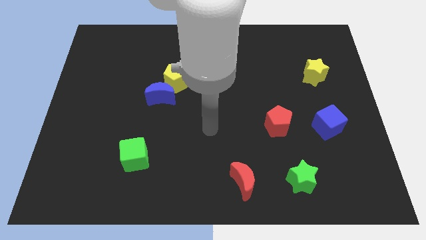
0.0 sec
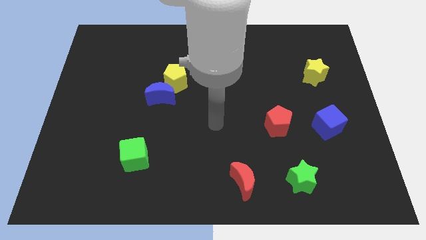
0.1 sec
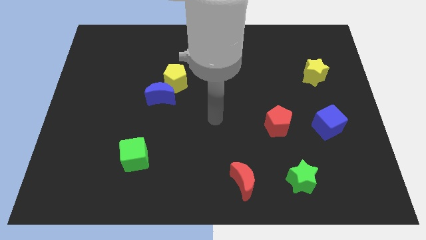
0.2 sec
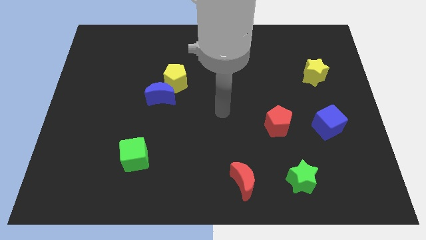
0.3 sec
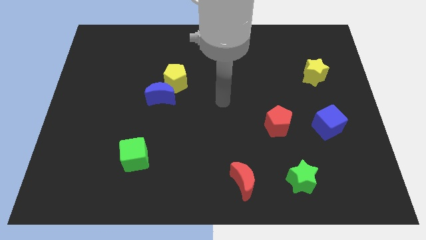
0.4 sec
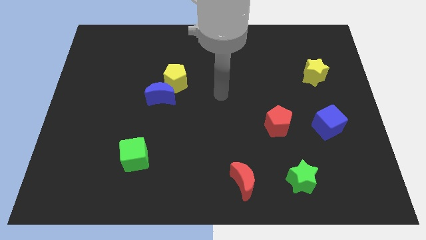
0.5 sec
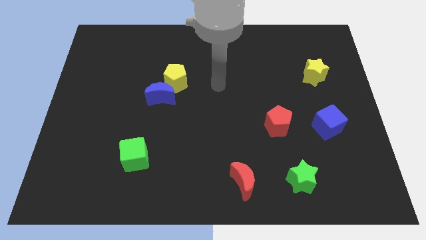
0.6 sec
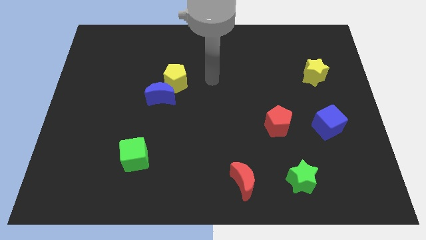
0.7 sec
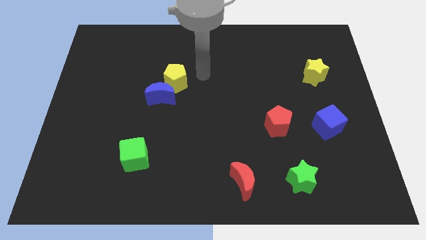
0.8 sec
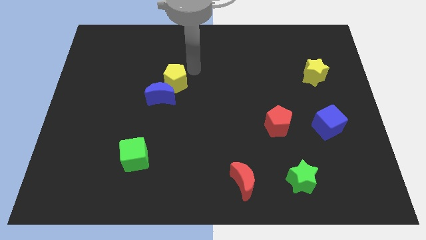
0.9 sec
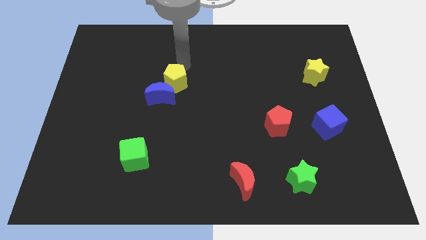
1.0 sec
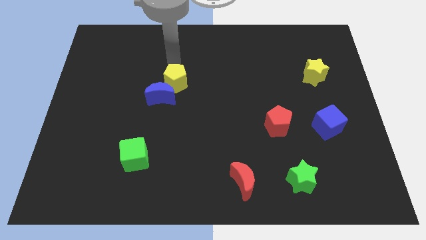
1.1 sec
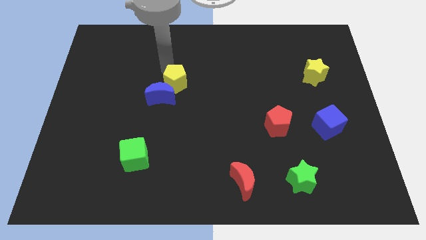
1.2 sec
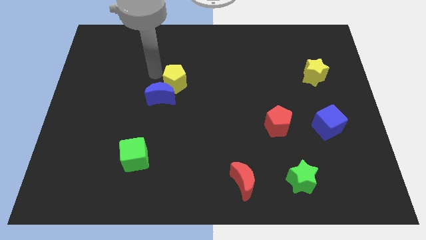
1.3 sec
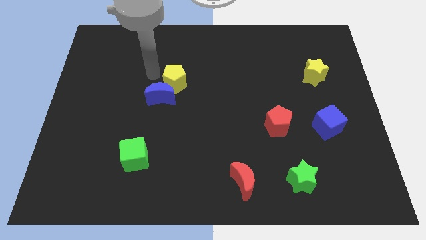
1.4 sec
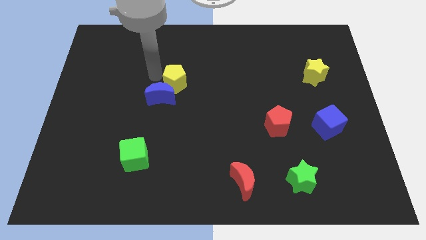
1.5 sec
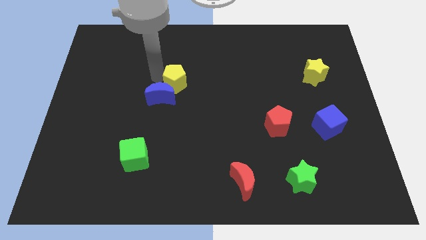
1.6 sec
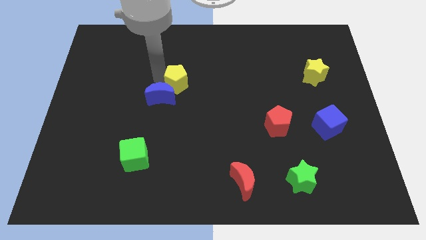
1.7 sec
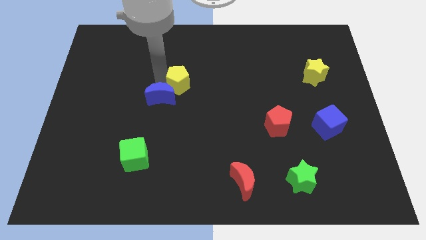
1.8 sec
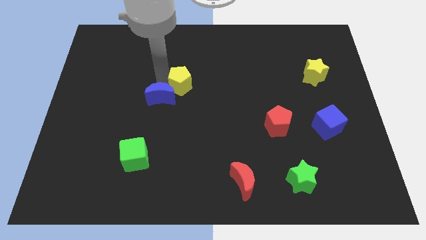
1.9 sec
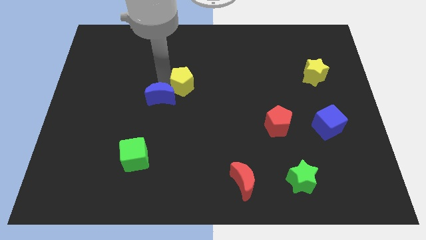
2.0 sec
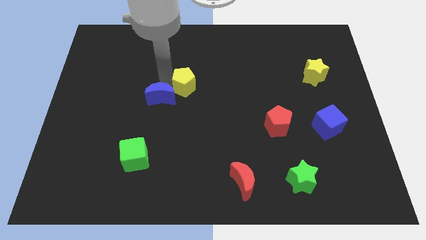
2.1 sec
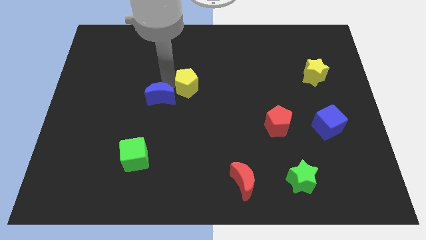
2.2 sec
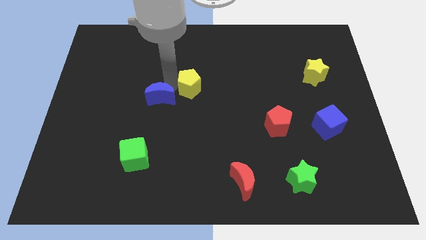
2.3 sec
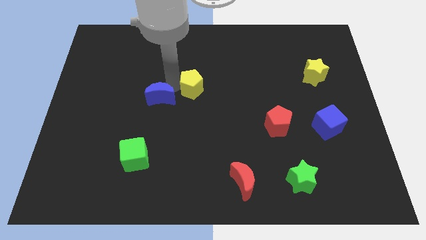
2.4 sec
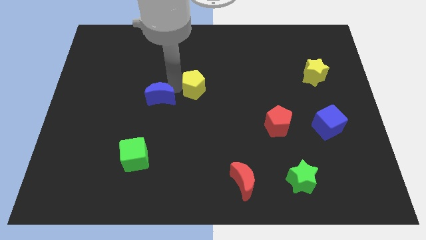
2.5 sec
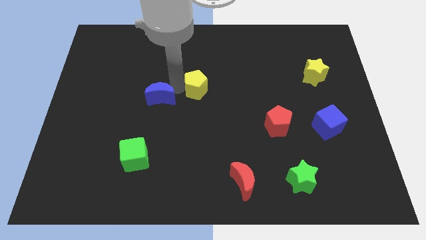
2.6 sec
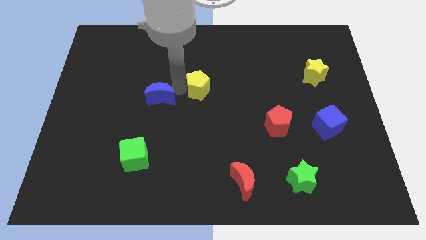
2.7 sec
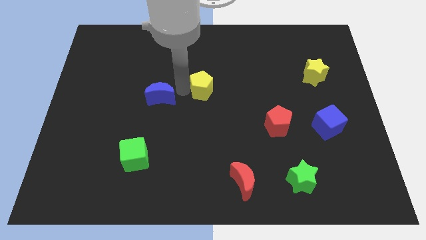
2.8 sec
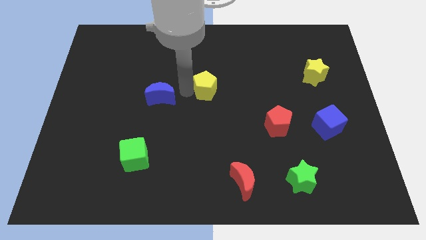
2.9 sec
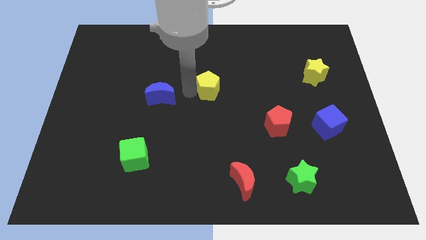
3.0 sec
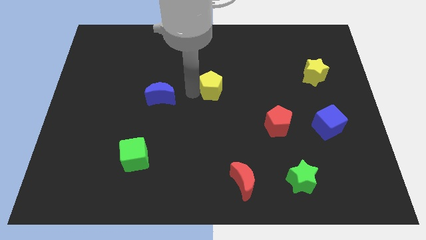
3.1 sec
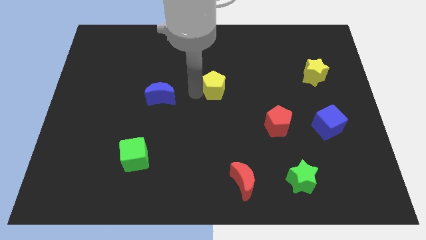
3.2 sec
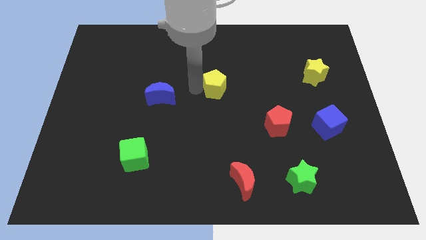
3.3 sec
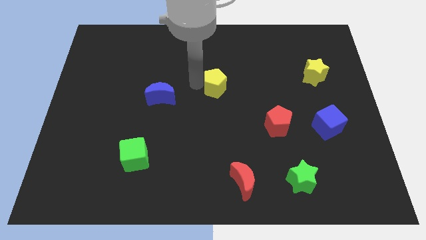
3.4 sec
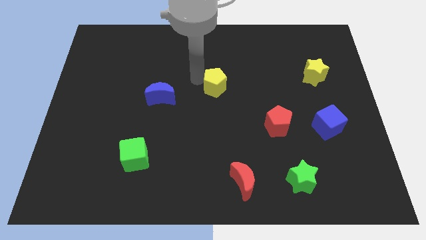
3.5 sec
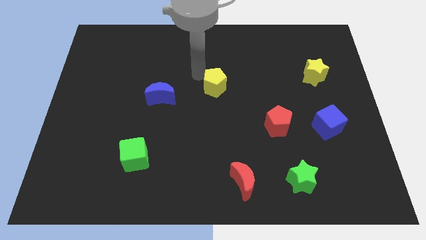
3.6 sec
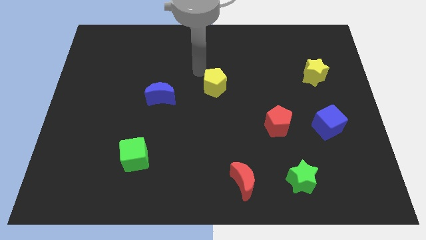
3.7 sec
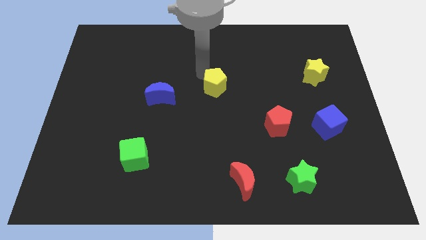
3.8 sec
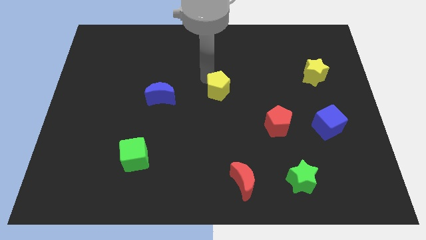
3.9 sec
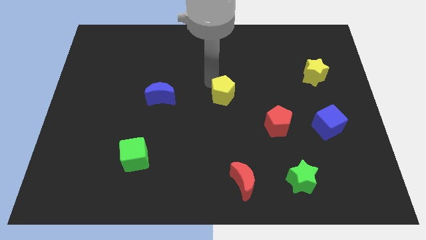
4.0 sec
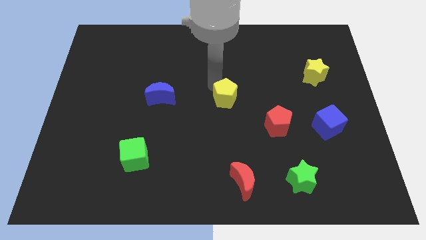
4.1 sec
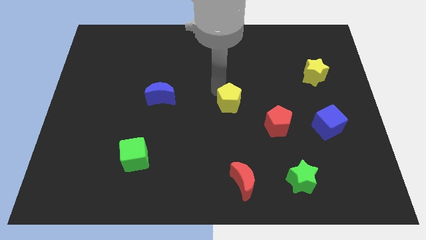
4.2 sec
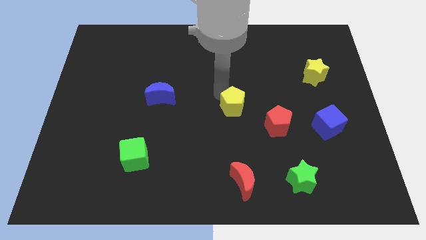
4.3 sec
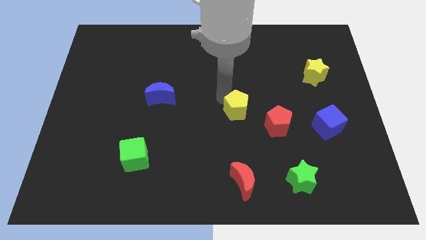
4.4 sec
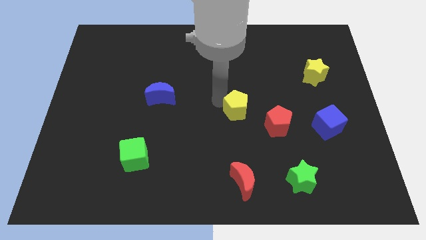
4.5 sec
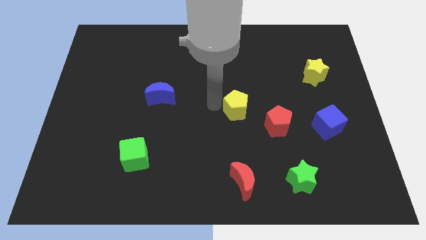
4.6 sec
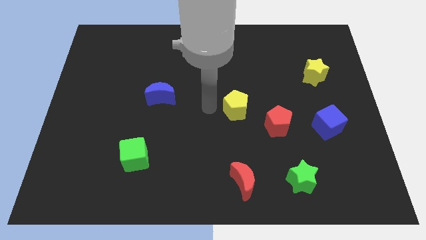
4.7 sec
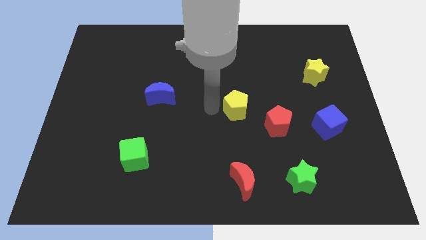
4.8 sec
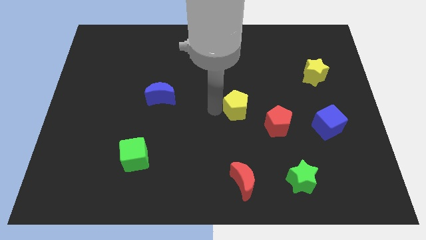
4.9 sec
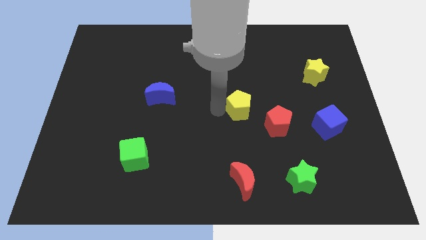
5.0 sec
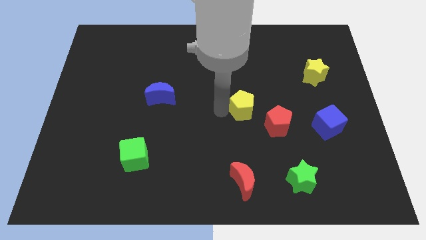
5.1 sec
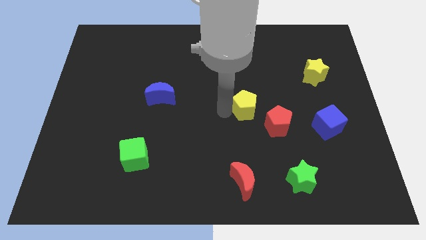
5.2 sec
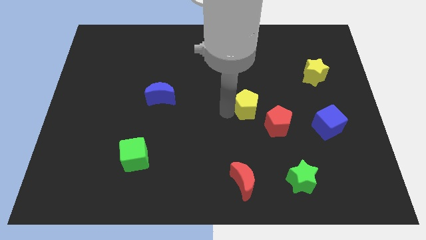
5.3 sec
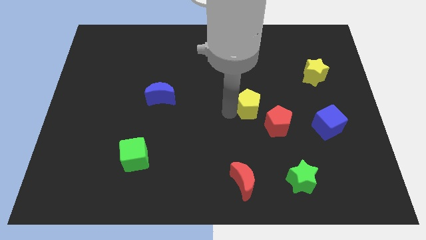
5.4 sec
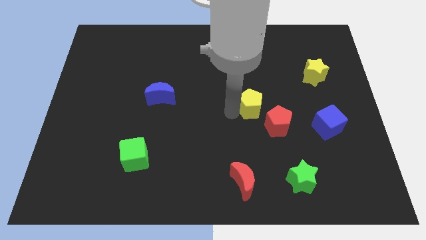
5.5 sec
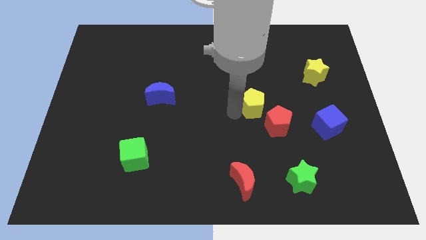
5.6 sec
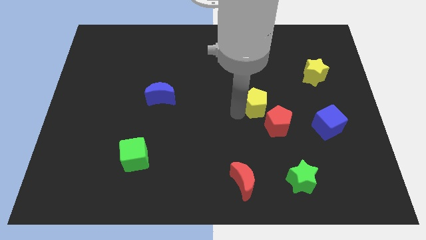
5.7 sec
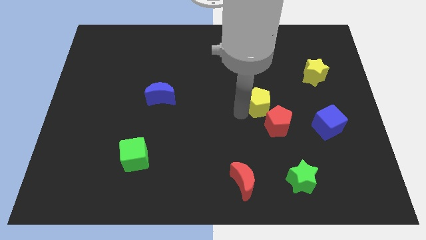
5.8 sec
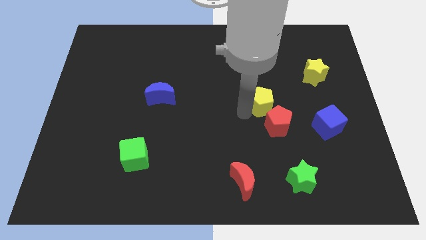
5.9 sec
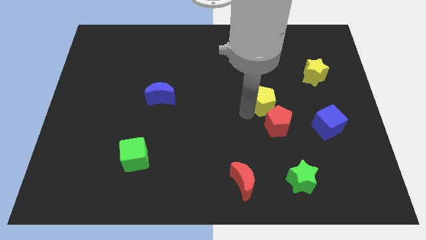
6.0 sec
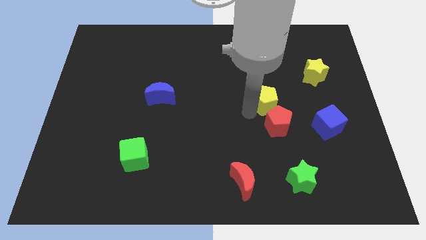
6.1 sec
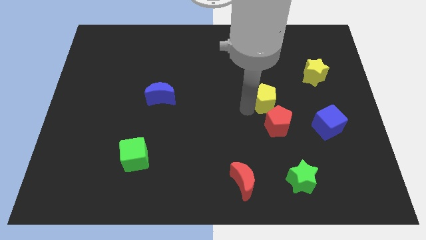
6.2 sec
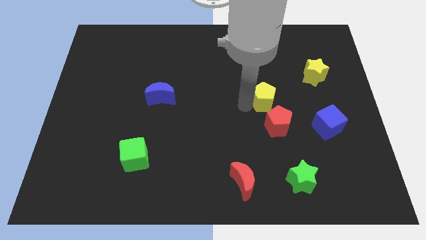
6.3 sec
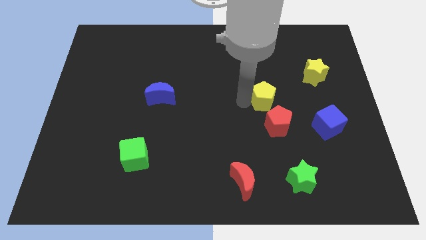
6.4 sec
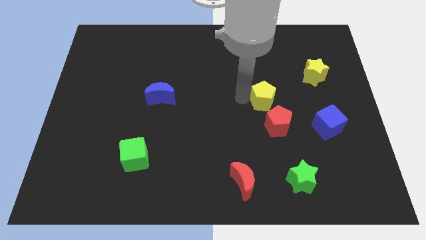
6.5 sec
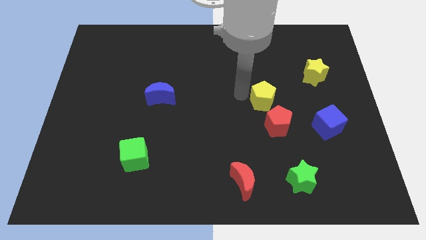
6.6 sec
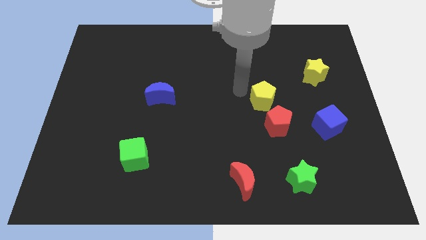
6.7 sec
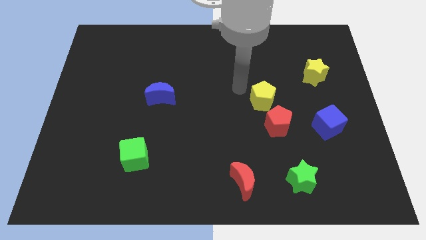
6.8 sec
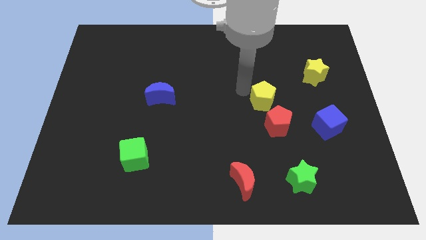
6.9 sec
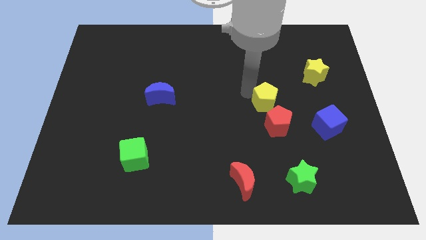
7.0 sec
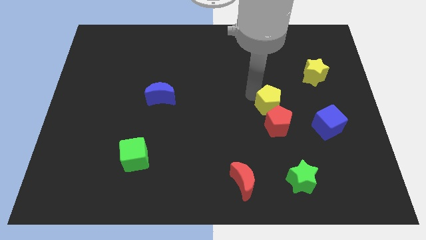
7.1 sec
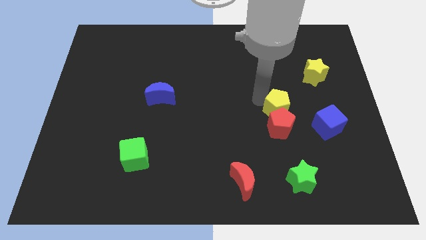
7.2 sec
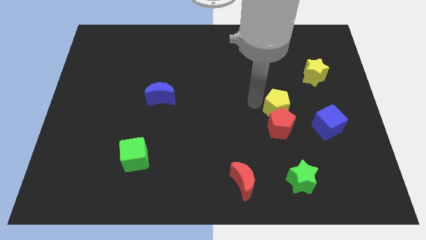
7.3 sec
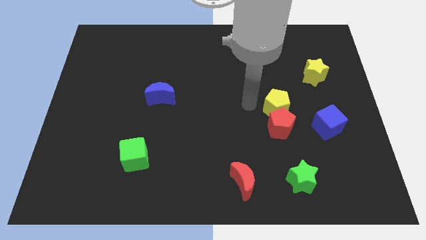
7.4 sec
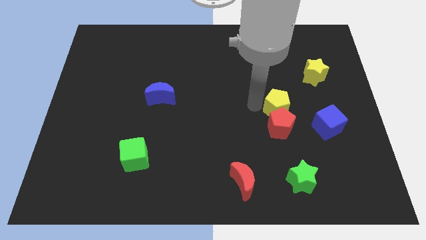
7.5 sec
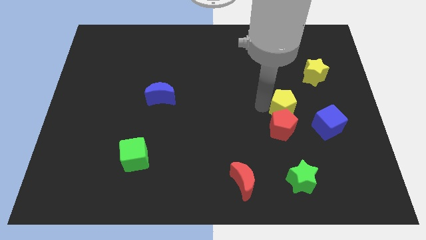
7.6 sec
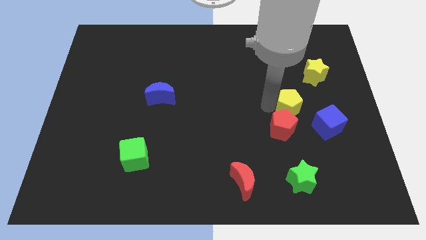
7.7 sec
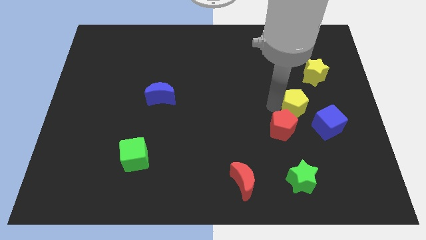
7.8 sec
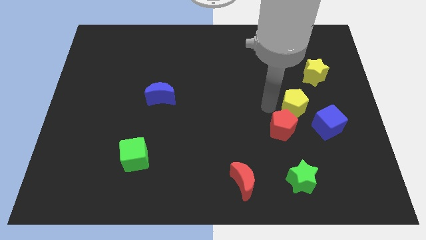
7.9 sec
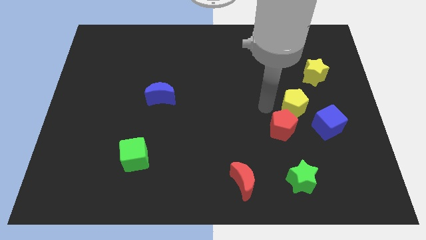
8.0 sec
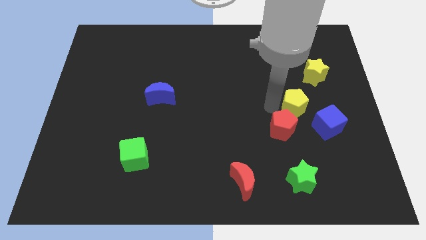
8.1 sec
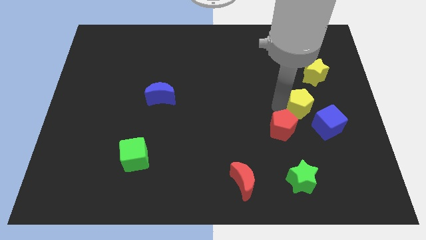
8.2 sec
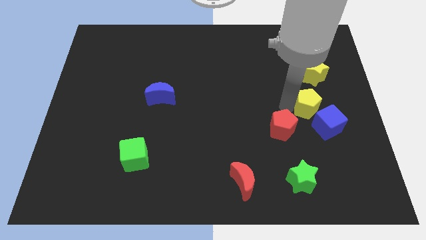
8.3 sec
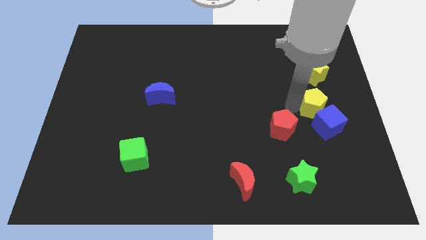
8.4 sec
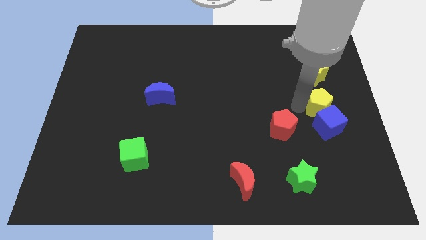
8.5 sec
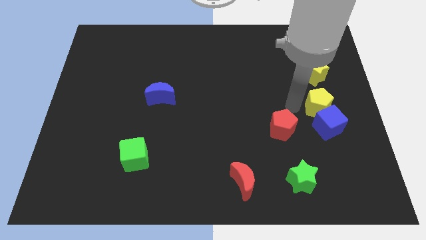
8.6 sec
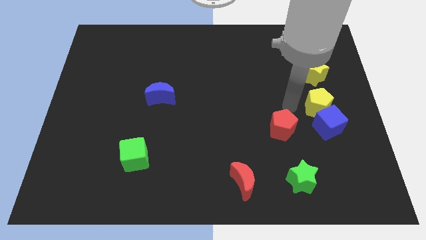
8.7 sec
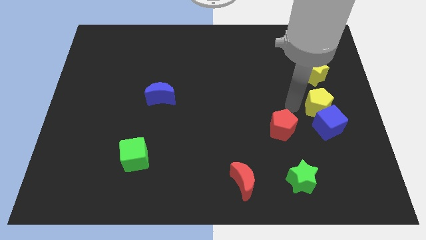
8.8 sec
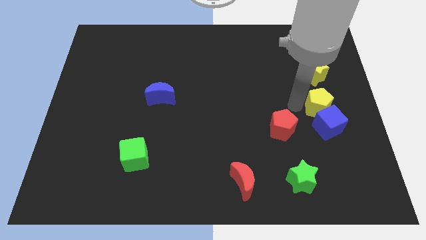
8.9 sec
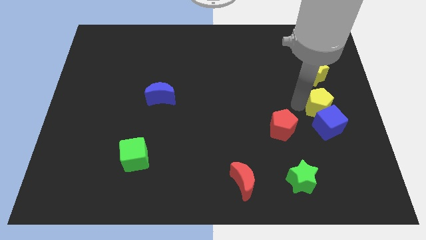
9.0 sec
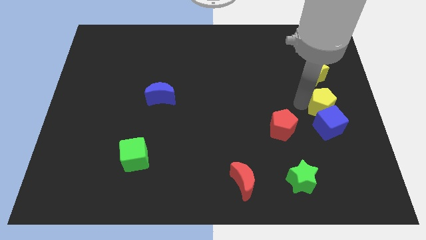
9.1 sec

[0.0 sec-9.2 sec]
push the yellow pentagon to the right side
